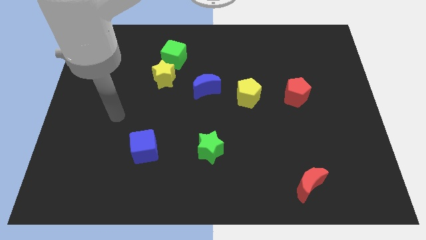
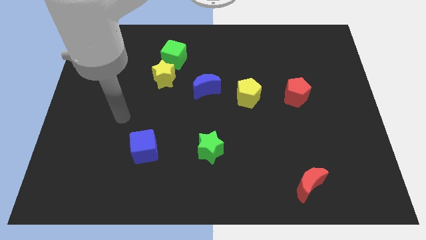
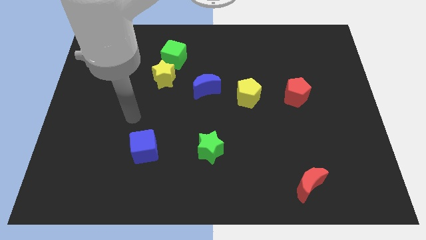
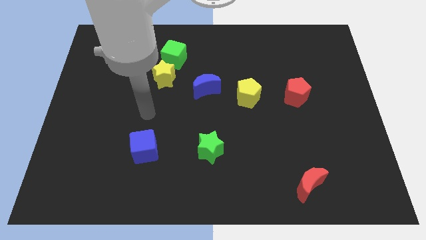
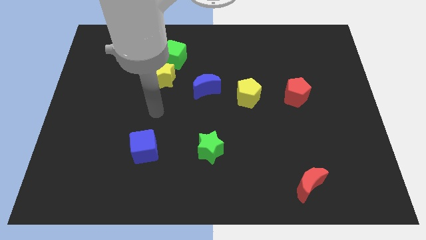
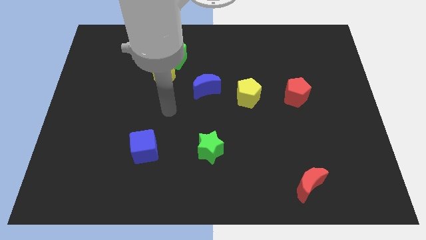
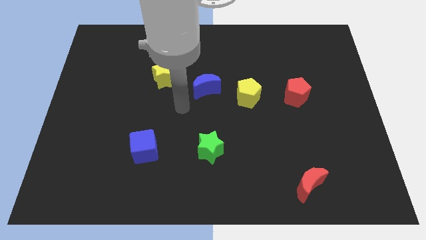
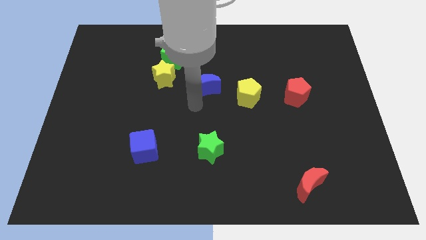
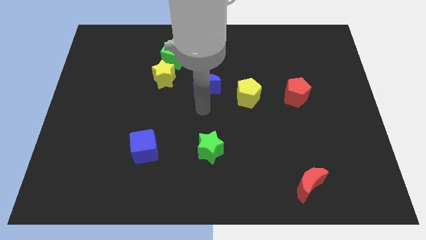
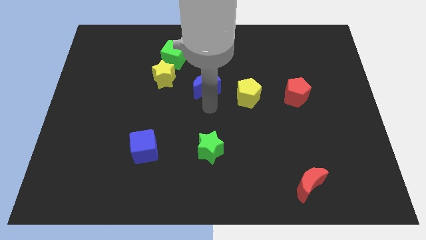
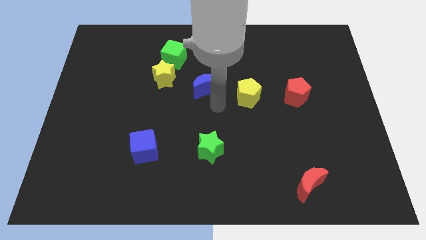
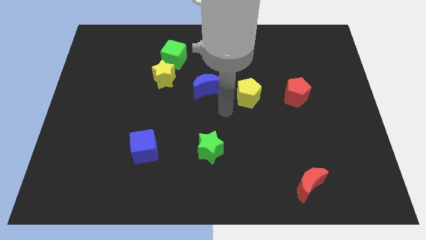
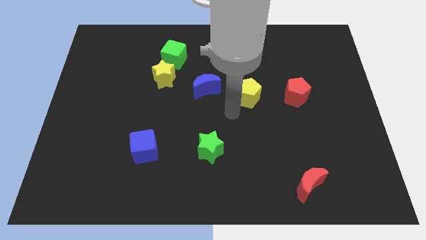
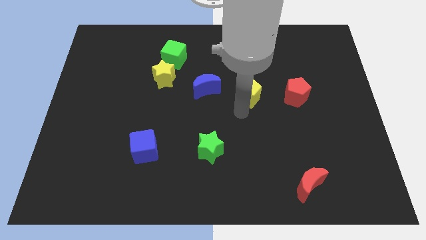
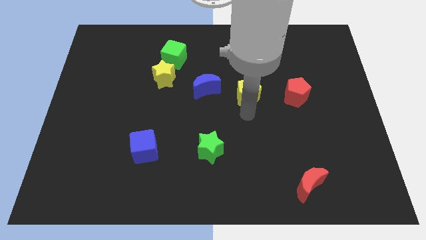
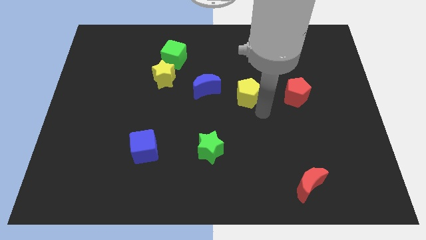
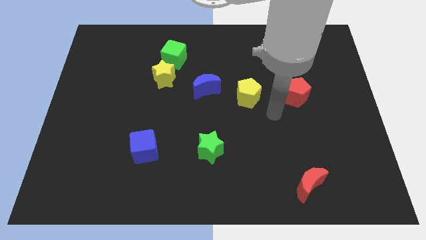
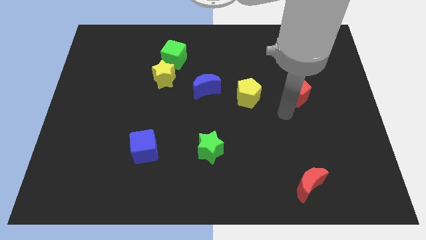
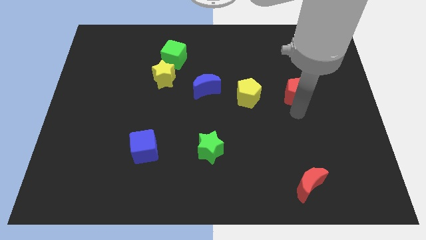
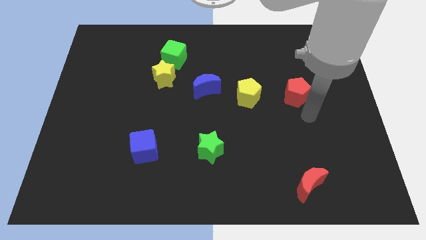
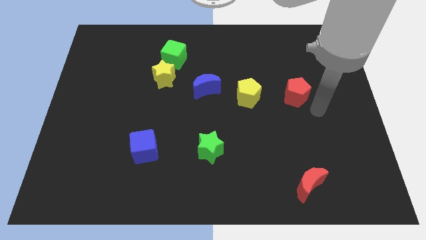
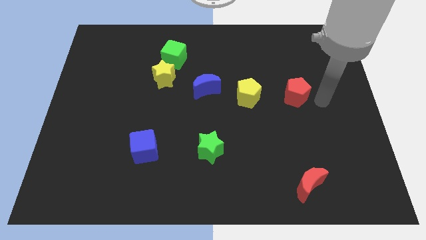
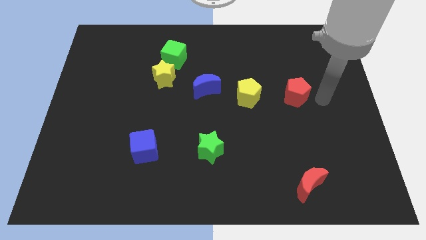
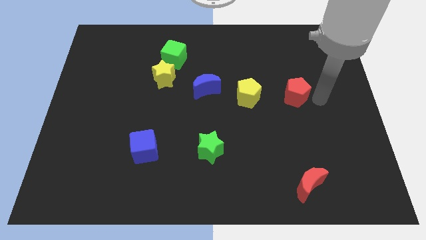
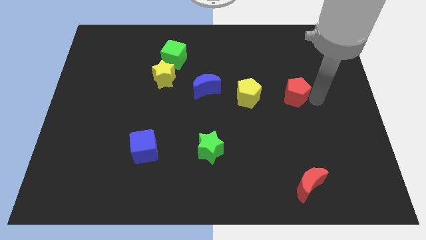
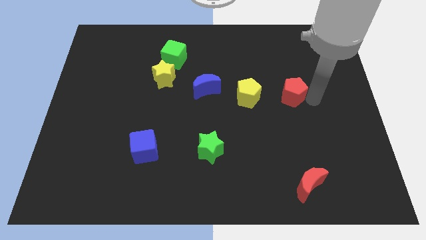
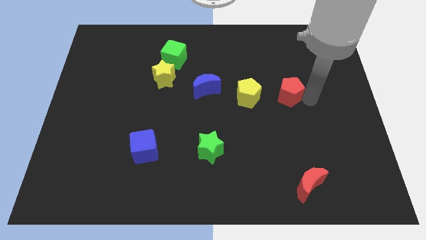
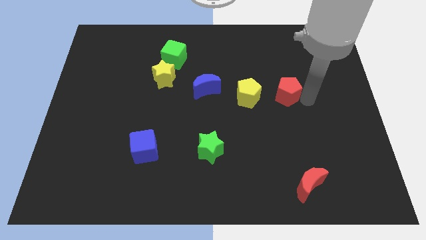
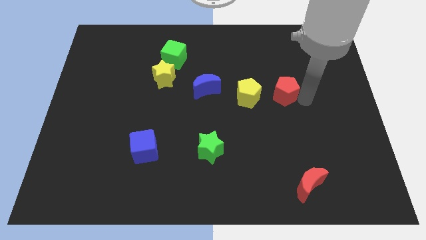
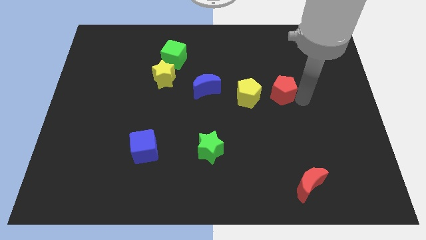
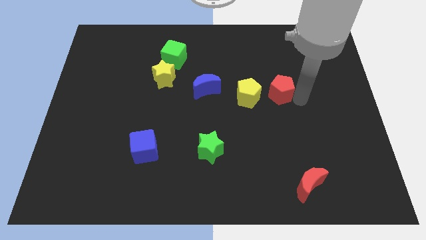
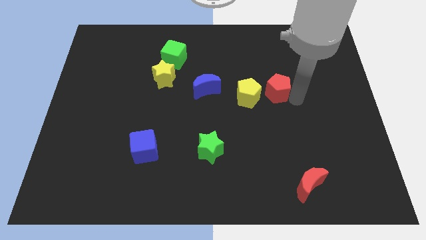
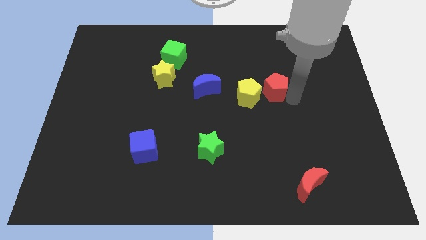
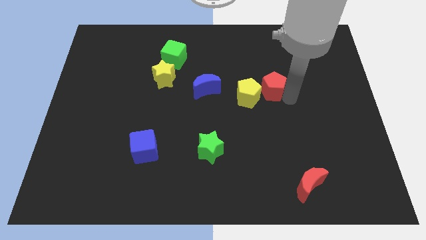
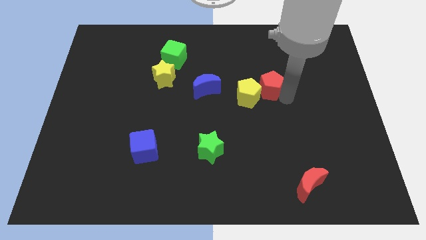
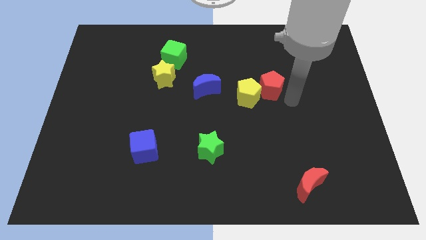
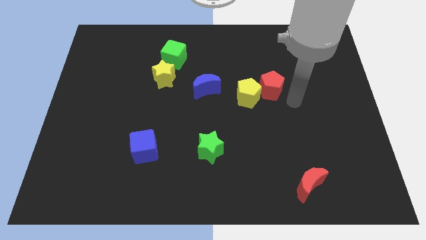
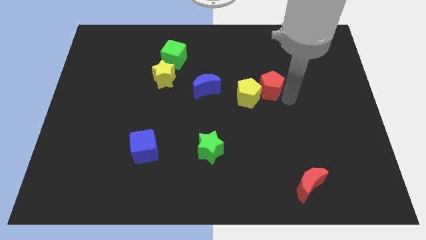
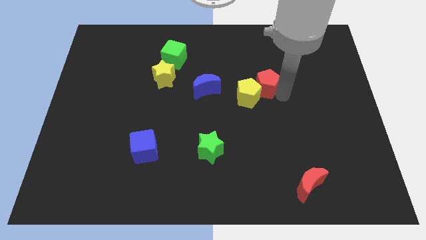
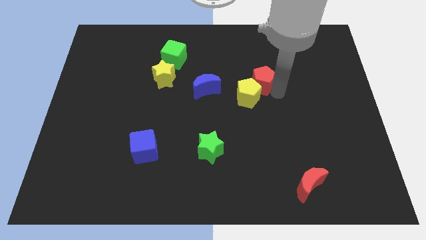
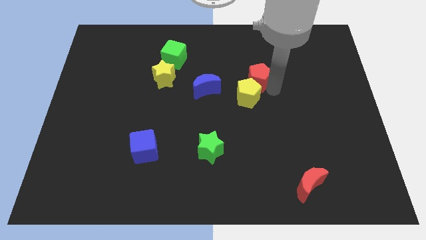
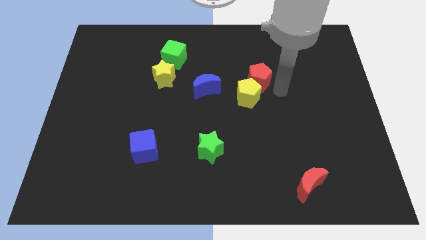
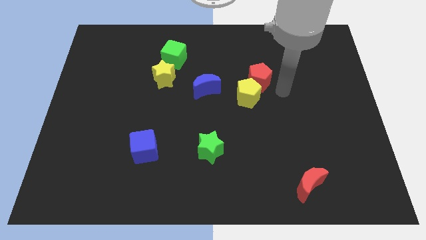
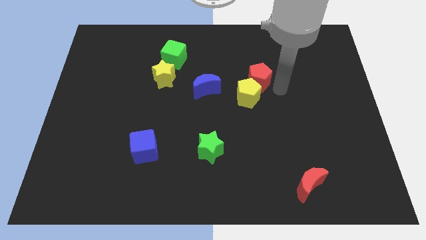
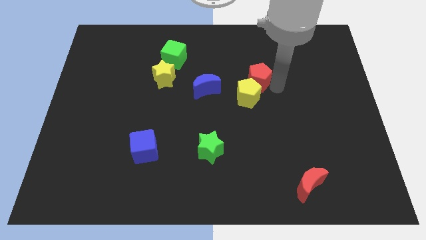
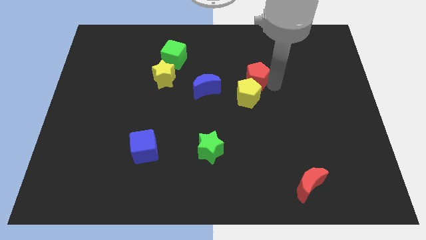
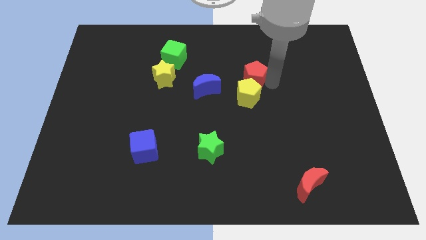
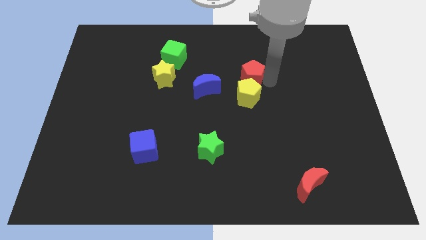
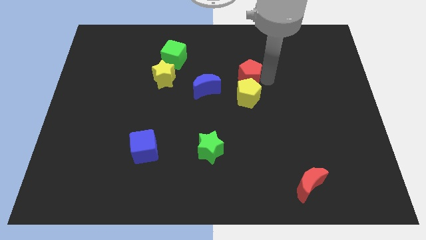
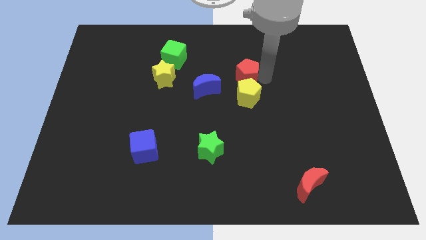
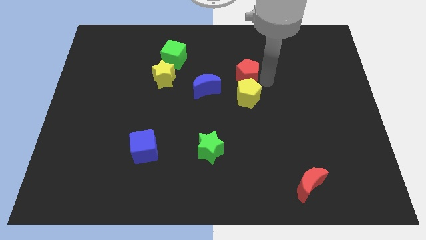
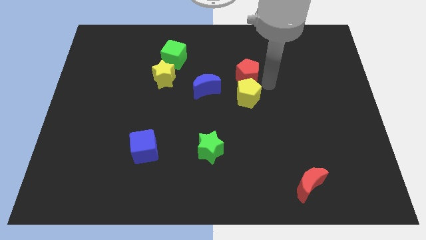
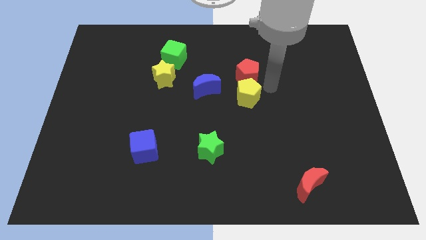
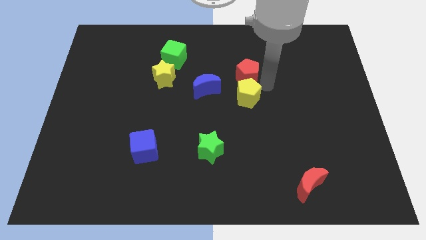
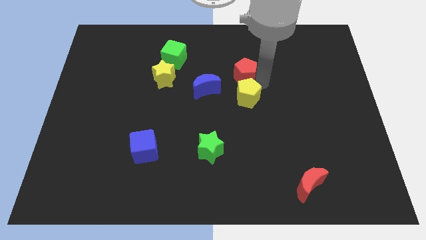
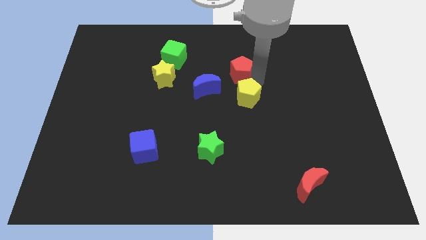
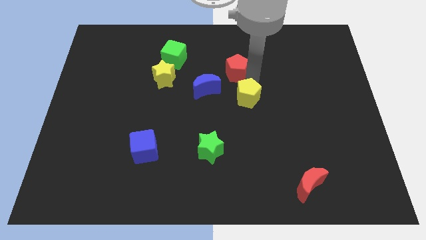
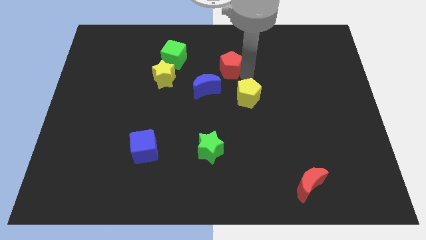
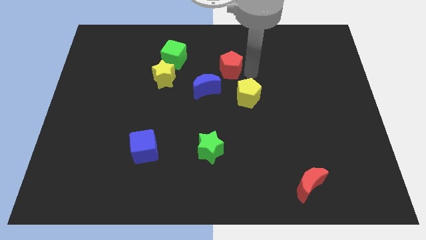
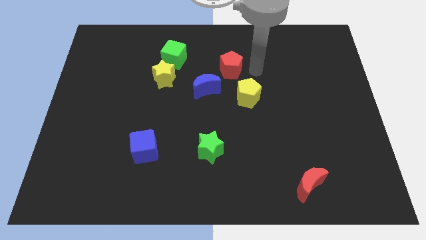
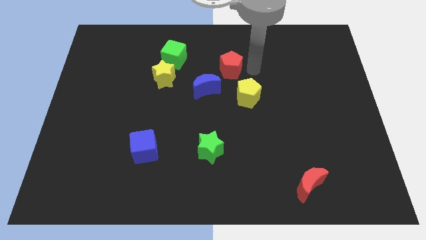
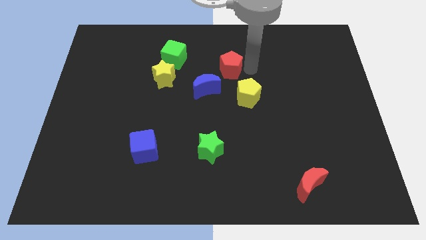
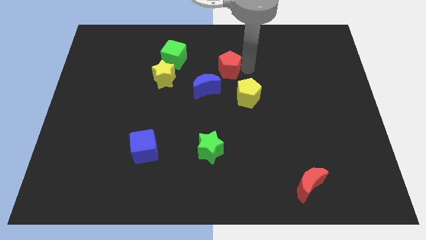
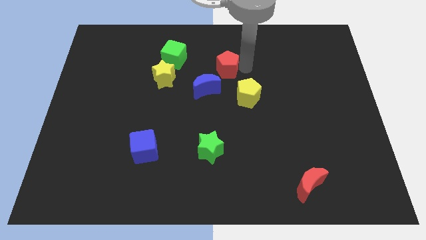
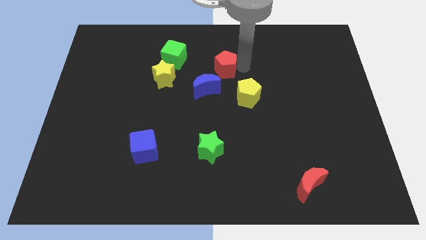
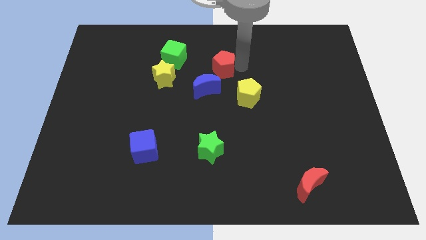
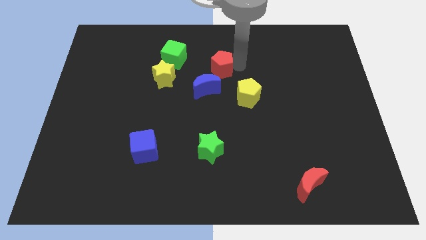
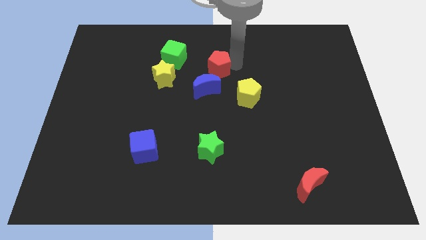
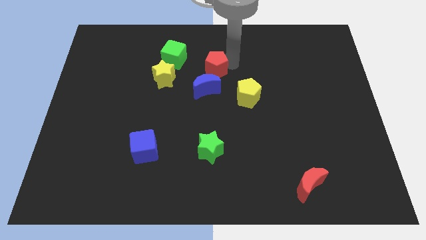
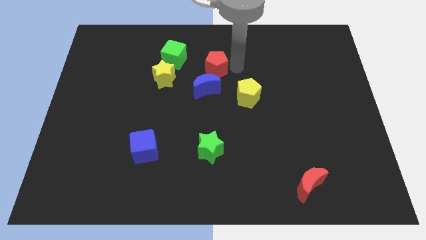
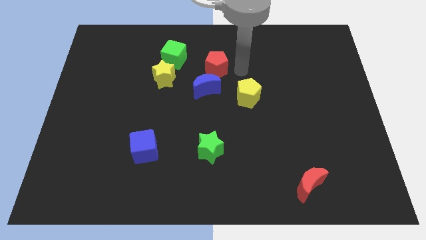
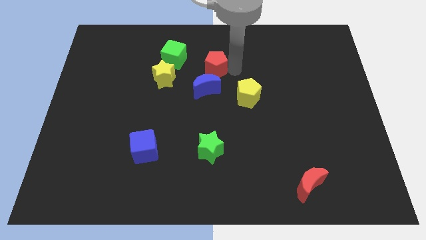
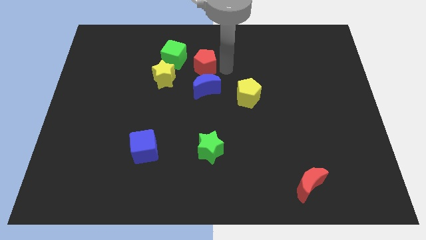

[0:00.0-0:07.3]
push the red pentagon to the top right of the yellow star
